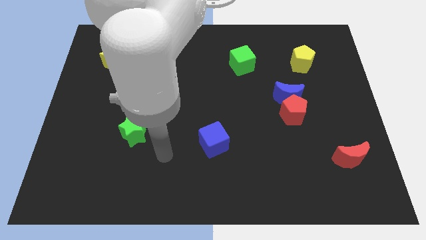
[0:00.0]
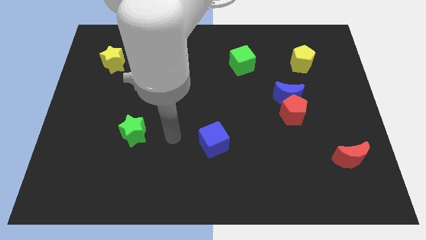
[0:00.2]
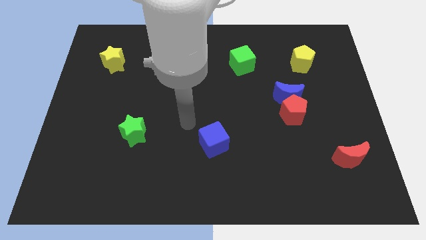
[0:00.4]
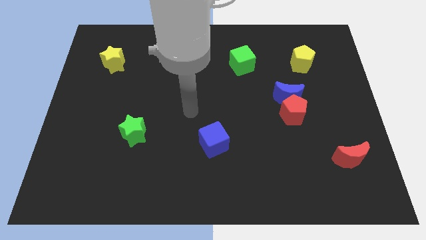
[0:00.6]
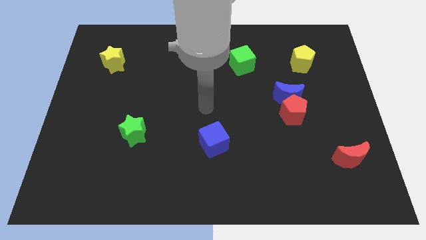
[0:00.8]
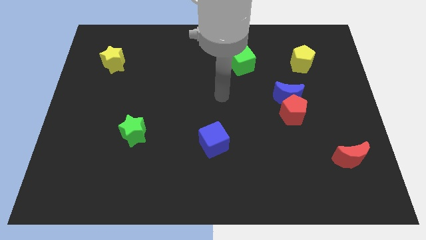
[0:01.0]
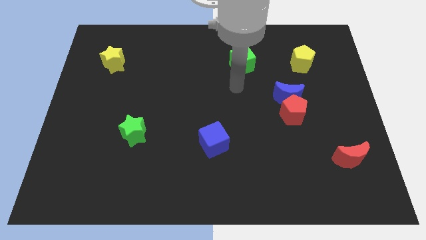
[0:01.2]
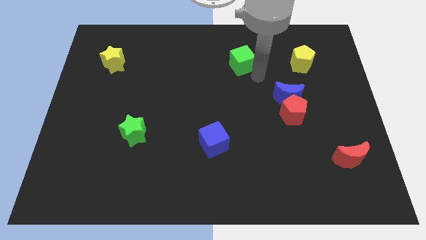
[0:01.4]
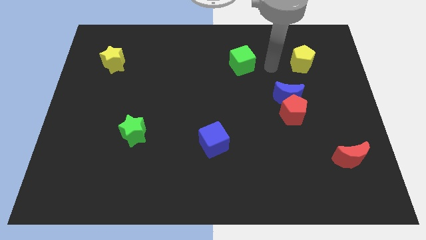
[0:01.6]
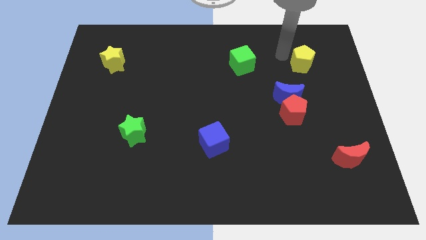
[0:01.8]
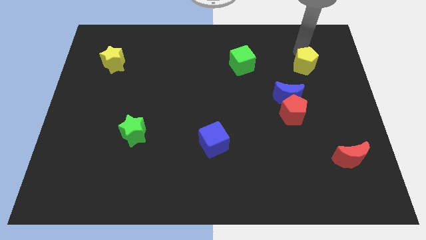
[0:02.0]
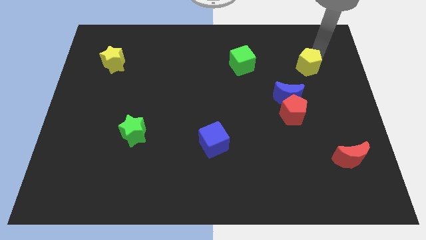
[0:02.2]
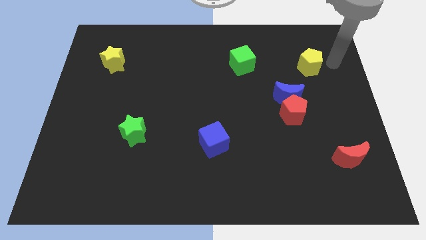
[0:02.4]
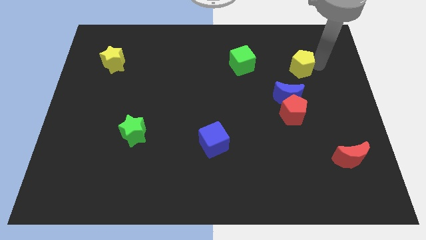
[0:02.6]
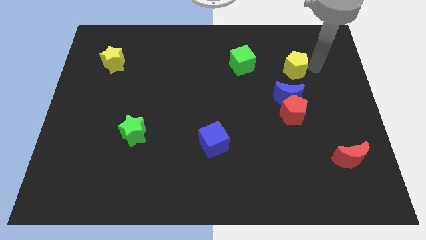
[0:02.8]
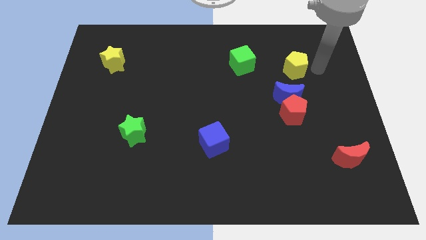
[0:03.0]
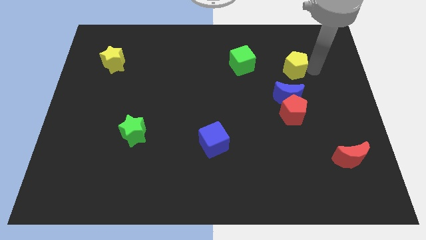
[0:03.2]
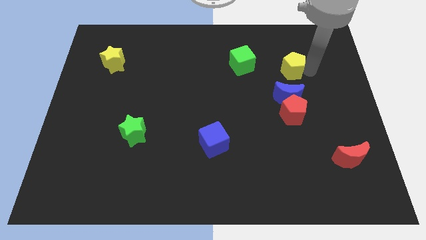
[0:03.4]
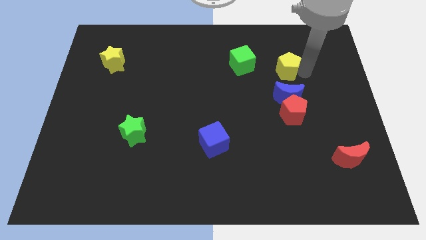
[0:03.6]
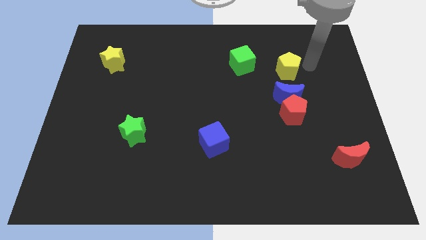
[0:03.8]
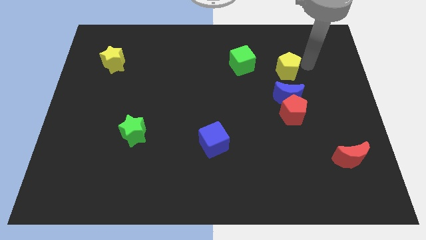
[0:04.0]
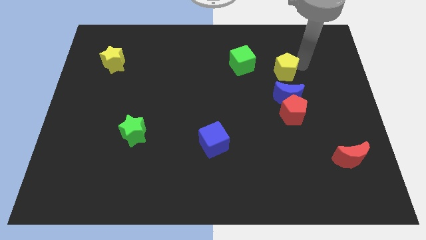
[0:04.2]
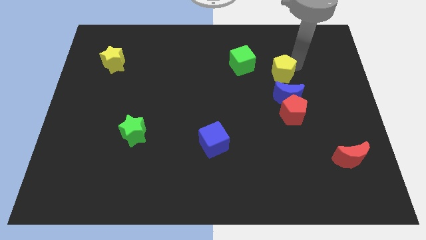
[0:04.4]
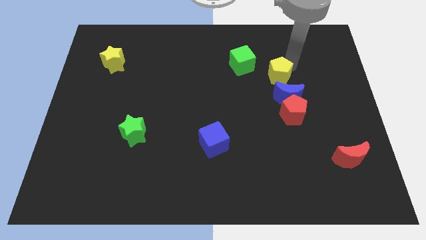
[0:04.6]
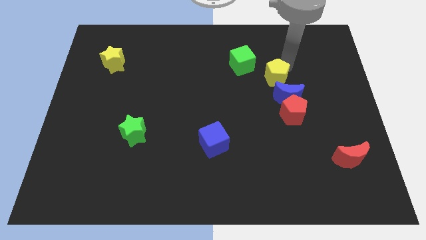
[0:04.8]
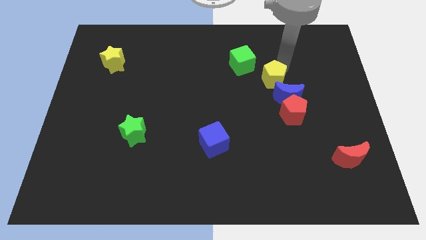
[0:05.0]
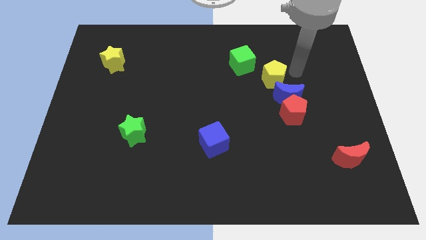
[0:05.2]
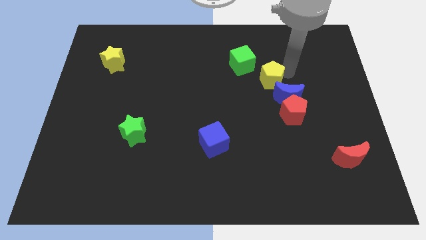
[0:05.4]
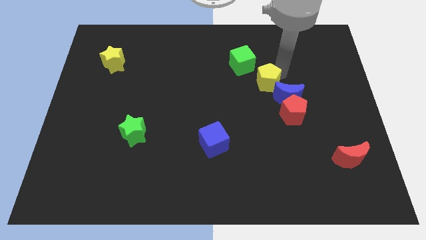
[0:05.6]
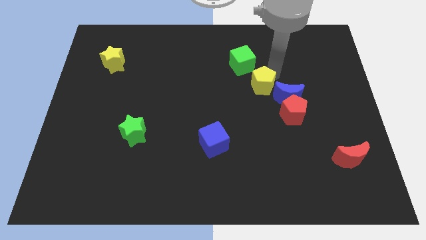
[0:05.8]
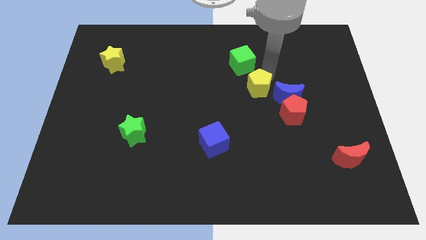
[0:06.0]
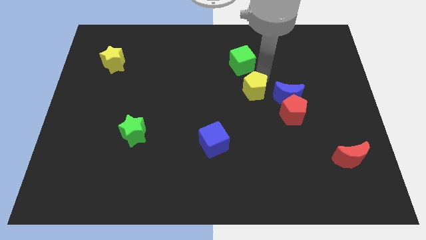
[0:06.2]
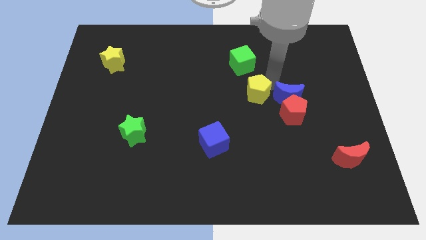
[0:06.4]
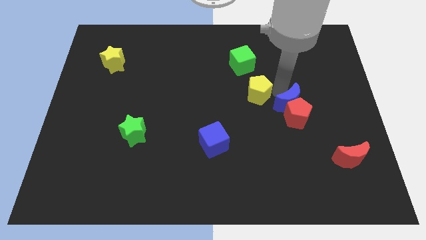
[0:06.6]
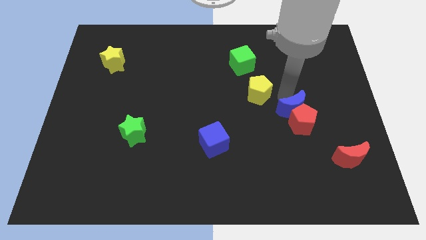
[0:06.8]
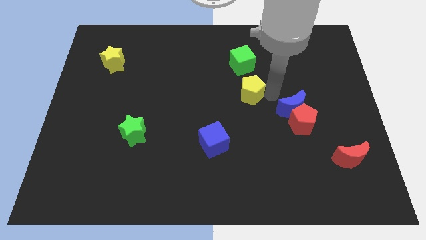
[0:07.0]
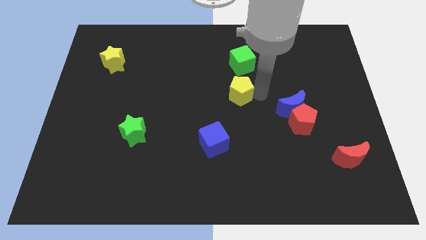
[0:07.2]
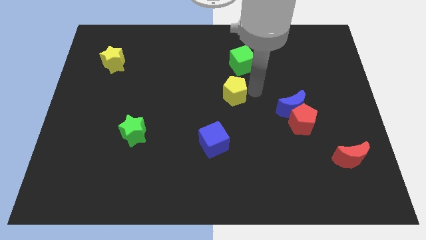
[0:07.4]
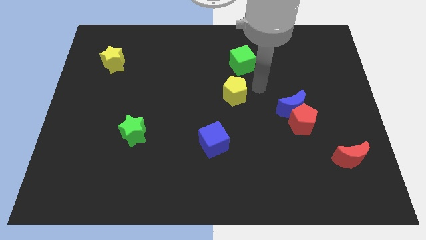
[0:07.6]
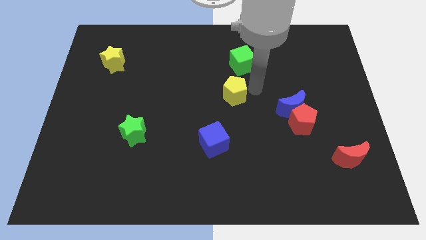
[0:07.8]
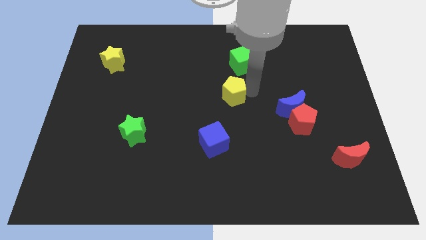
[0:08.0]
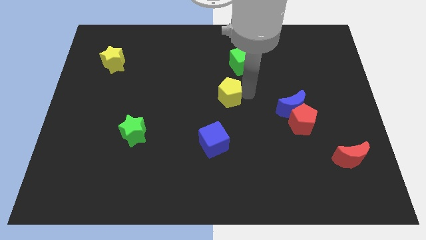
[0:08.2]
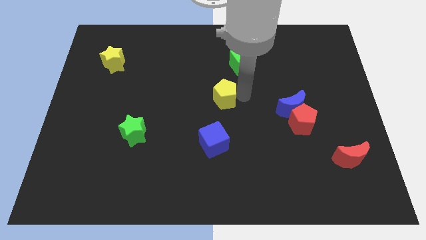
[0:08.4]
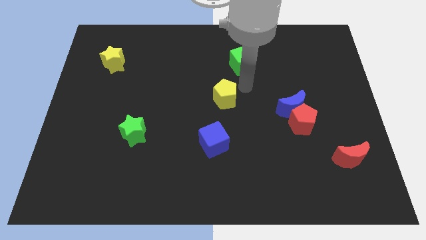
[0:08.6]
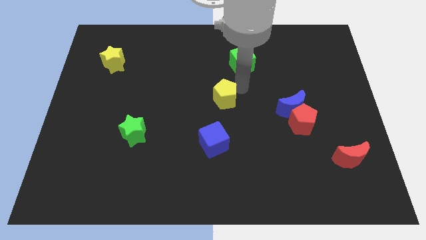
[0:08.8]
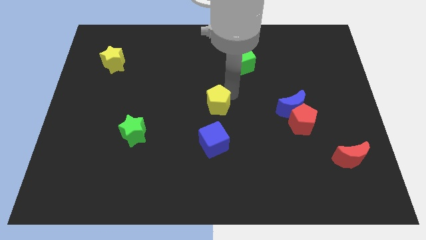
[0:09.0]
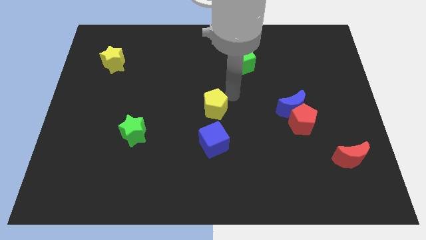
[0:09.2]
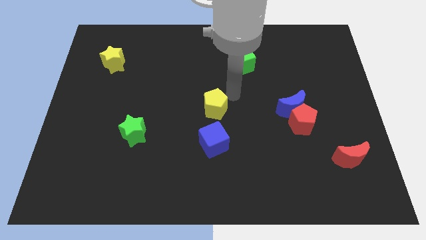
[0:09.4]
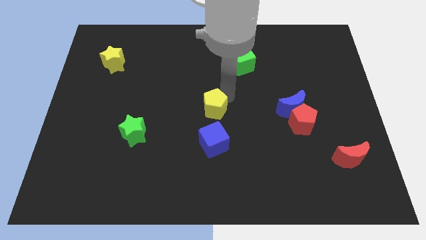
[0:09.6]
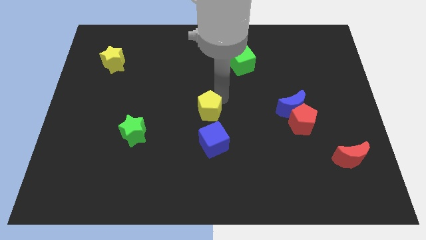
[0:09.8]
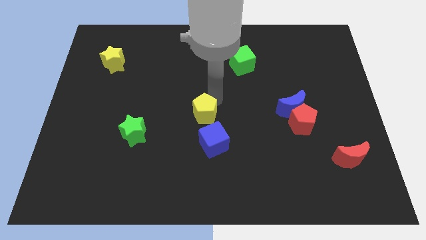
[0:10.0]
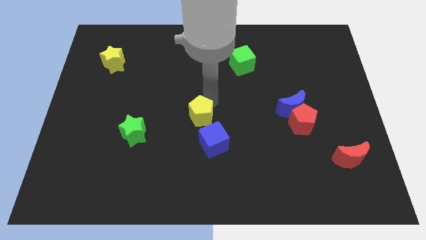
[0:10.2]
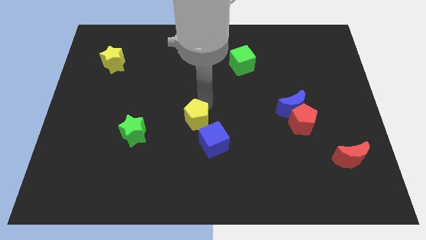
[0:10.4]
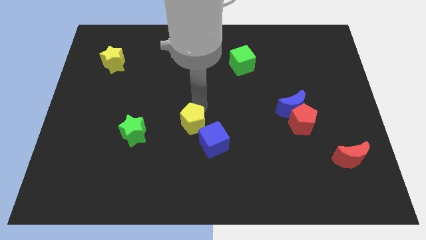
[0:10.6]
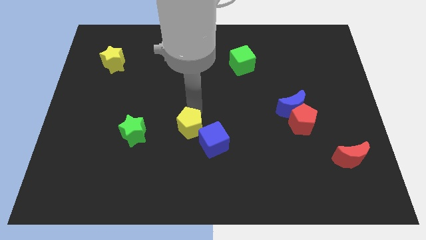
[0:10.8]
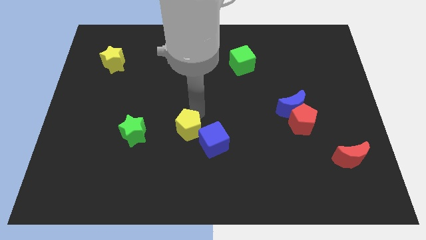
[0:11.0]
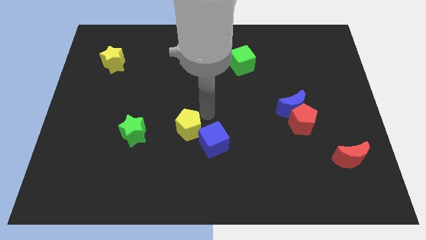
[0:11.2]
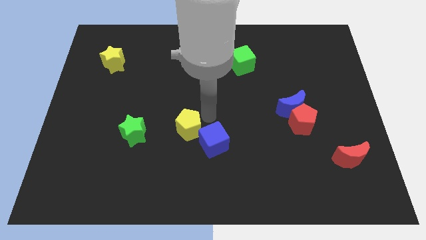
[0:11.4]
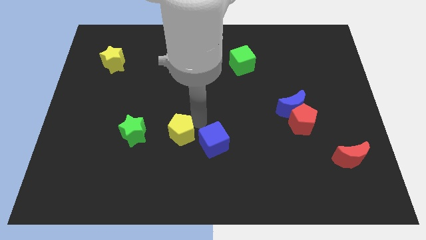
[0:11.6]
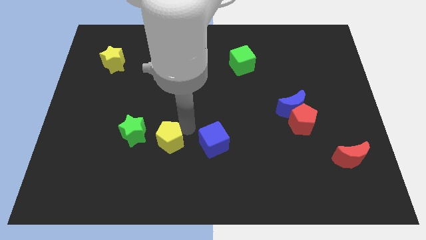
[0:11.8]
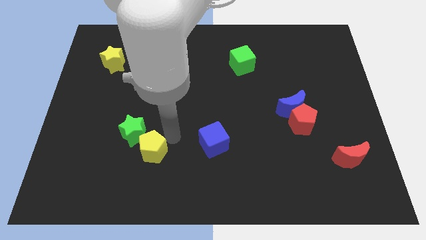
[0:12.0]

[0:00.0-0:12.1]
move the yellow pentagon to the bottom side of the green star

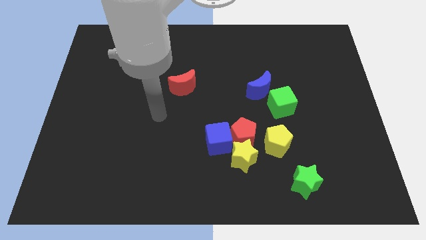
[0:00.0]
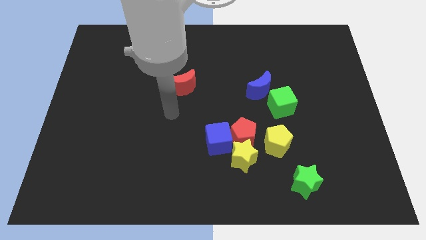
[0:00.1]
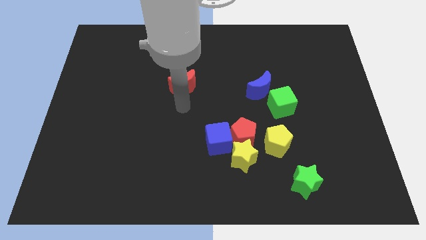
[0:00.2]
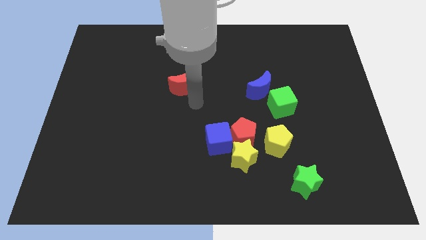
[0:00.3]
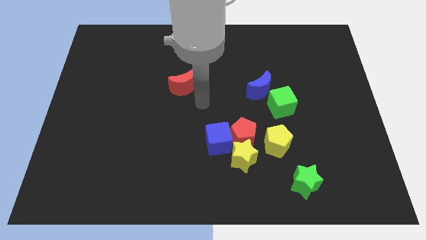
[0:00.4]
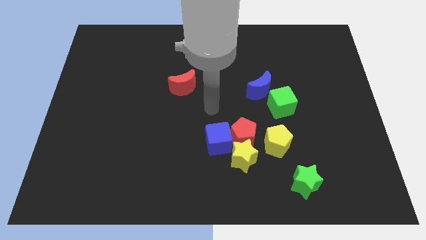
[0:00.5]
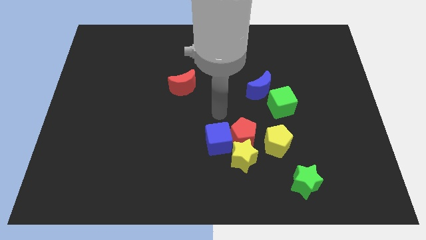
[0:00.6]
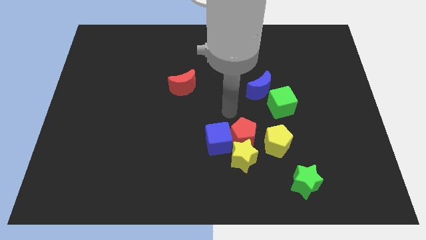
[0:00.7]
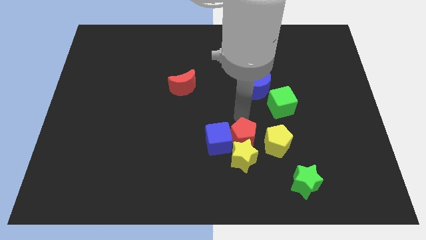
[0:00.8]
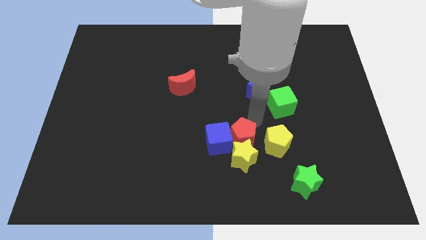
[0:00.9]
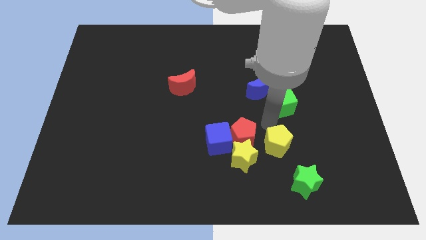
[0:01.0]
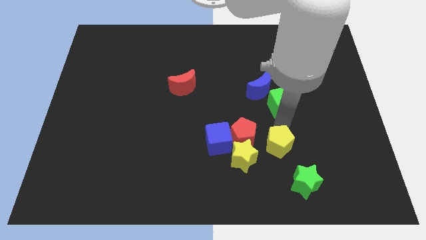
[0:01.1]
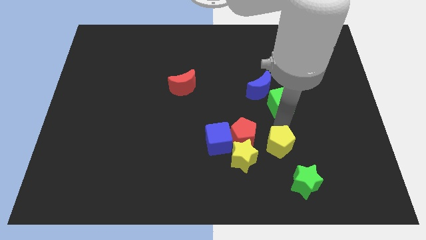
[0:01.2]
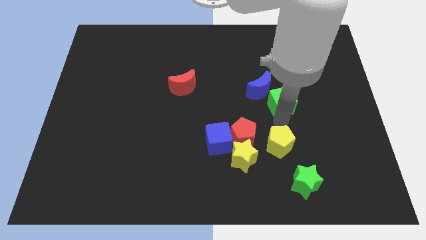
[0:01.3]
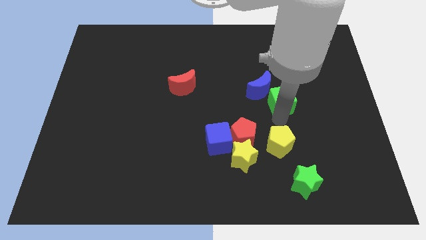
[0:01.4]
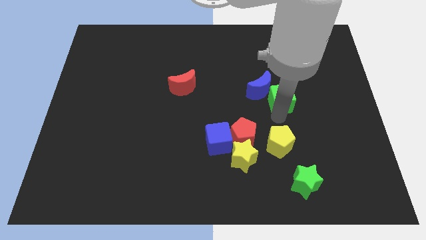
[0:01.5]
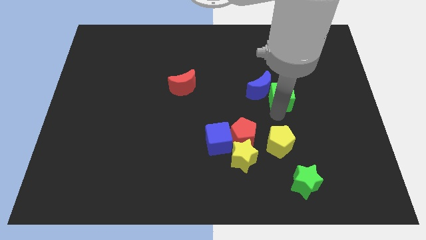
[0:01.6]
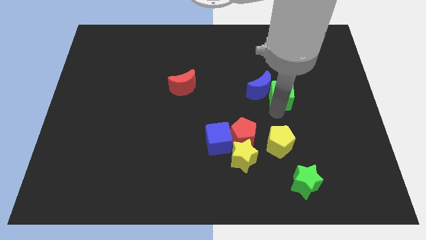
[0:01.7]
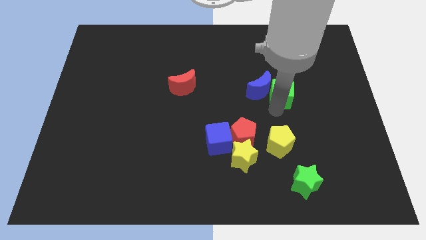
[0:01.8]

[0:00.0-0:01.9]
move the green cube to the top right of the blue moon
